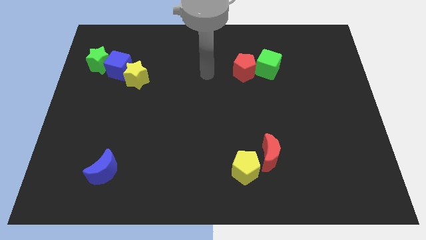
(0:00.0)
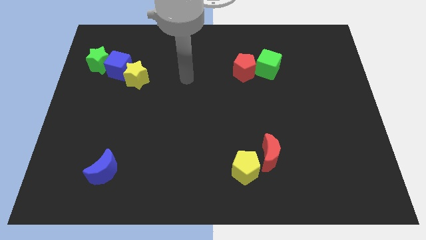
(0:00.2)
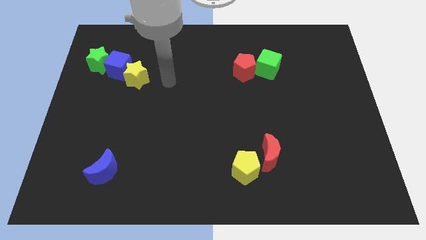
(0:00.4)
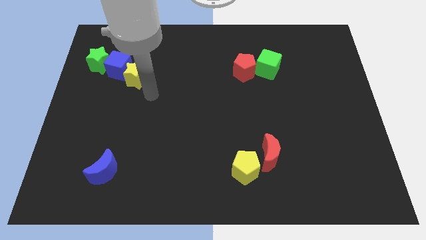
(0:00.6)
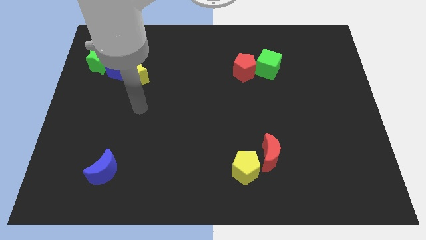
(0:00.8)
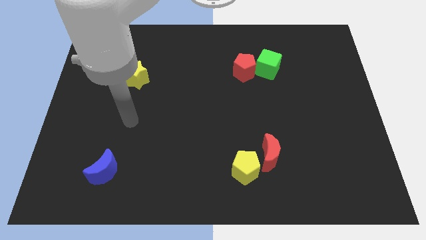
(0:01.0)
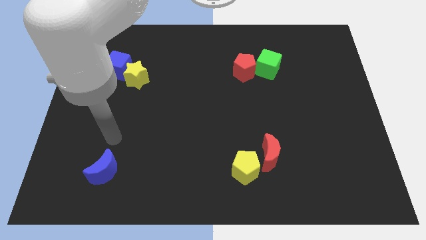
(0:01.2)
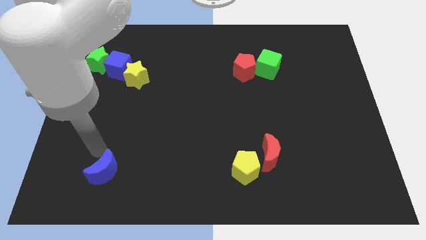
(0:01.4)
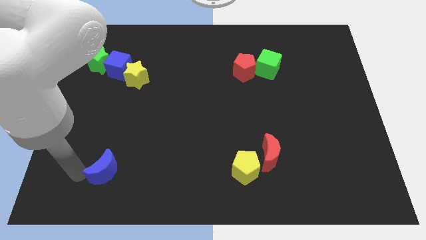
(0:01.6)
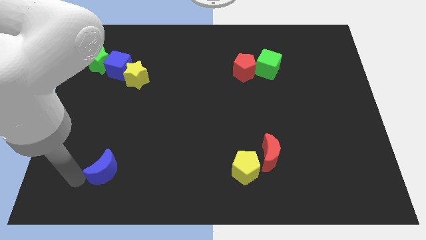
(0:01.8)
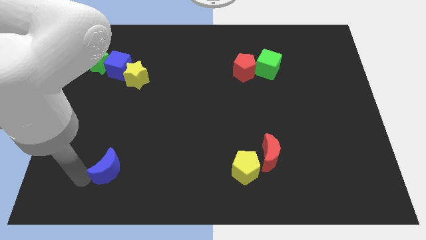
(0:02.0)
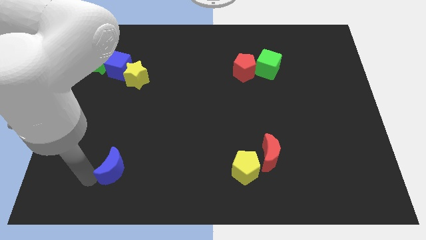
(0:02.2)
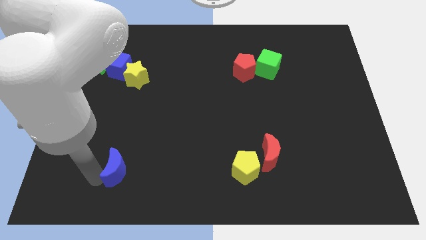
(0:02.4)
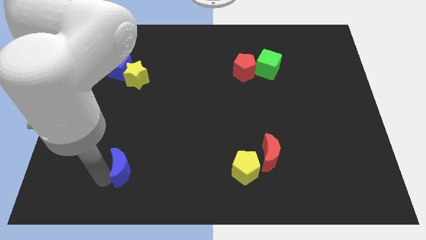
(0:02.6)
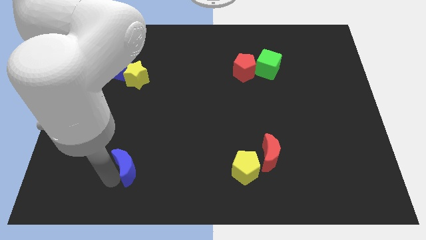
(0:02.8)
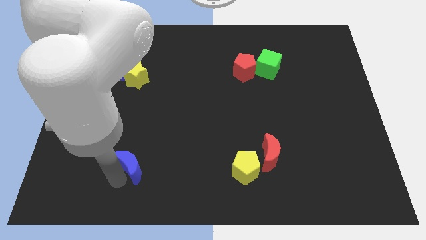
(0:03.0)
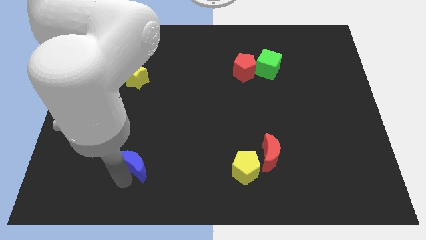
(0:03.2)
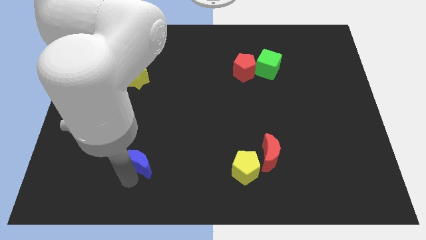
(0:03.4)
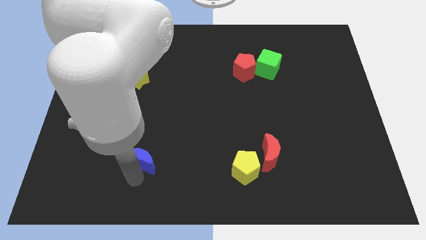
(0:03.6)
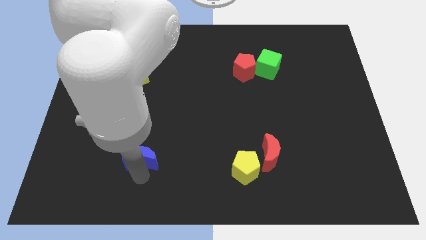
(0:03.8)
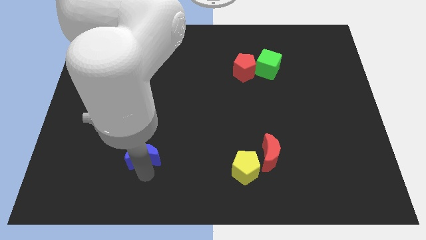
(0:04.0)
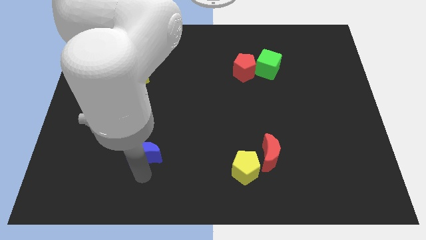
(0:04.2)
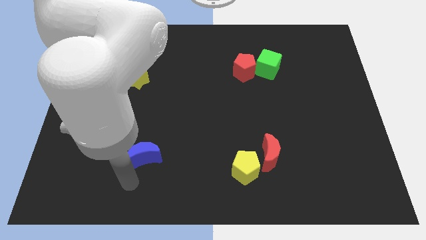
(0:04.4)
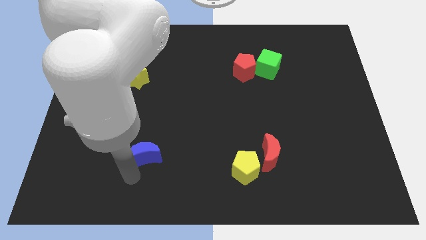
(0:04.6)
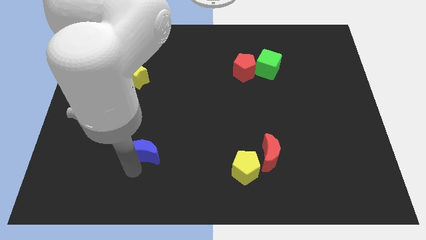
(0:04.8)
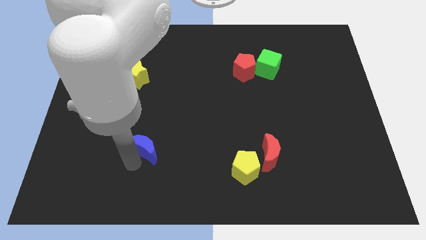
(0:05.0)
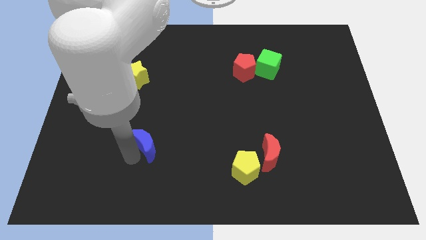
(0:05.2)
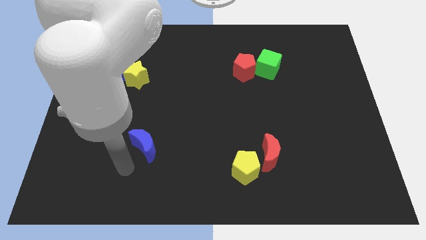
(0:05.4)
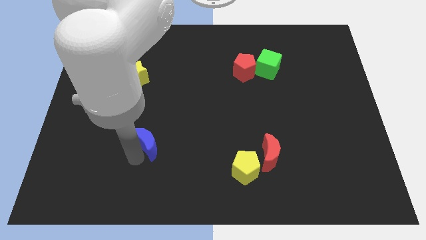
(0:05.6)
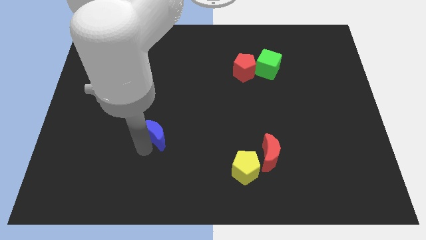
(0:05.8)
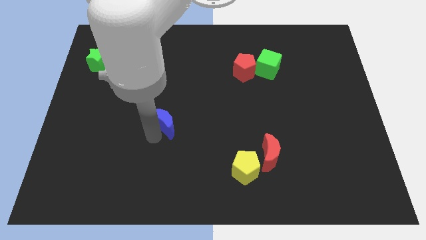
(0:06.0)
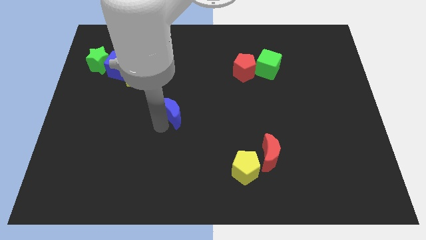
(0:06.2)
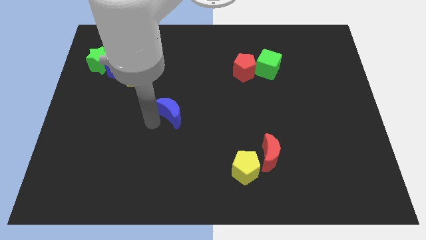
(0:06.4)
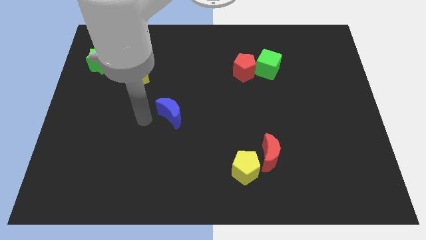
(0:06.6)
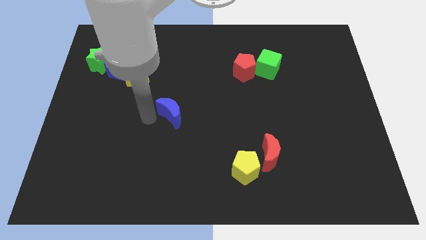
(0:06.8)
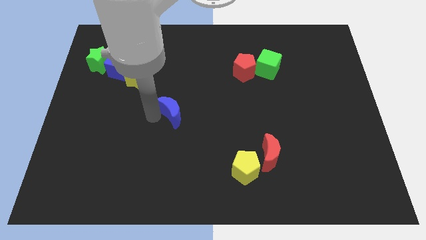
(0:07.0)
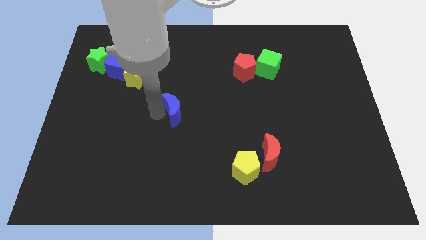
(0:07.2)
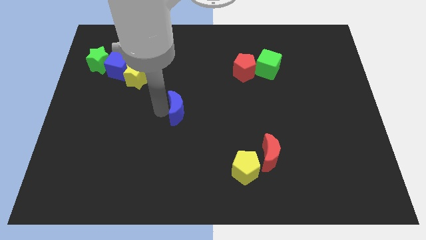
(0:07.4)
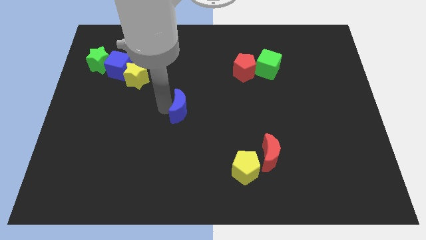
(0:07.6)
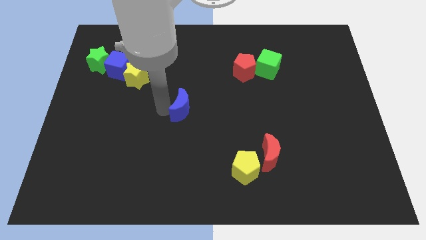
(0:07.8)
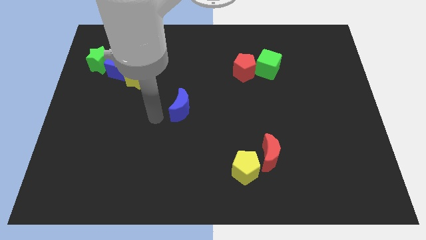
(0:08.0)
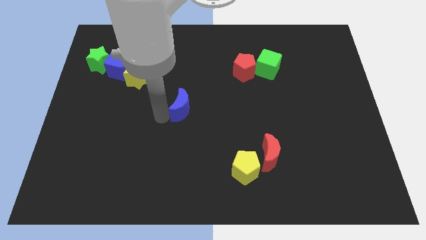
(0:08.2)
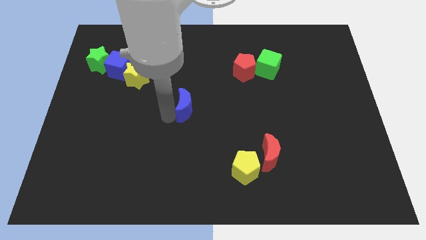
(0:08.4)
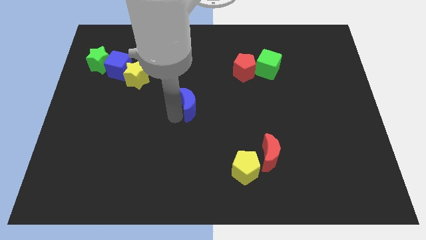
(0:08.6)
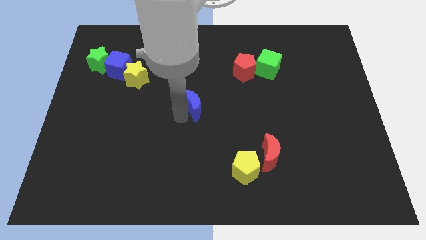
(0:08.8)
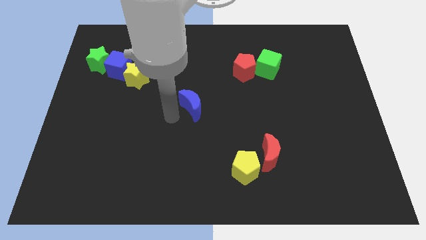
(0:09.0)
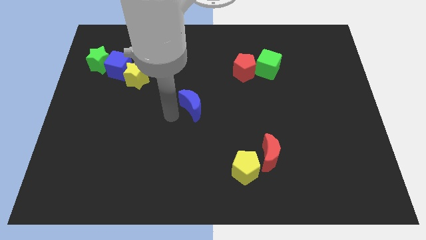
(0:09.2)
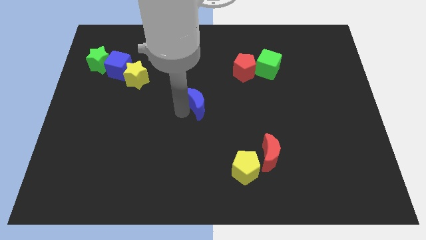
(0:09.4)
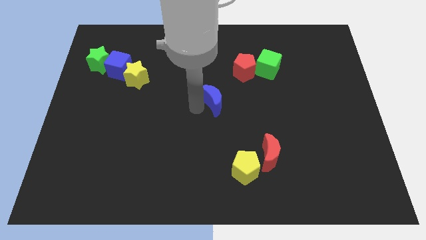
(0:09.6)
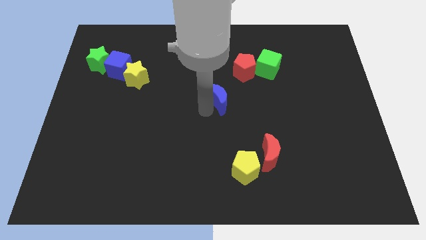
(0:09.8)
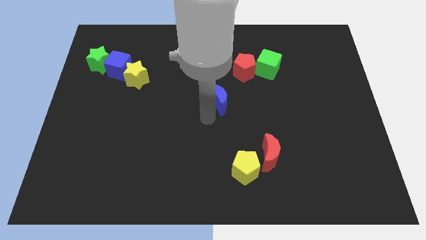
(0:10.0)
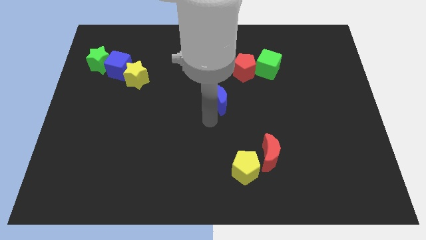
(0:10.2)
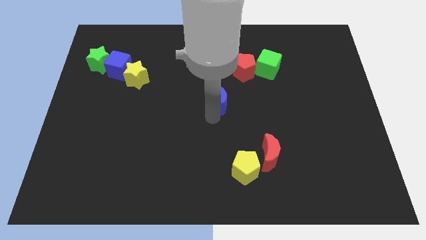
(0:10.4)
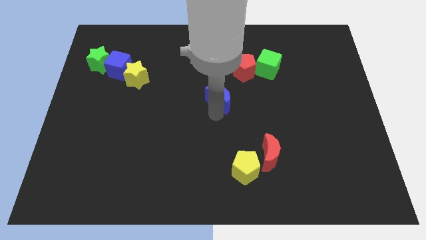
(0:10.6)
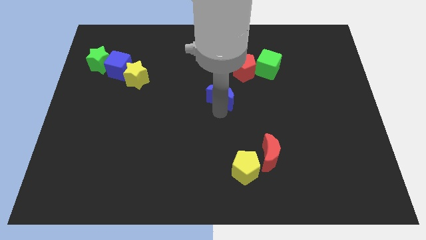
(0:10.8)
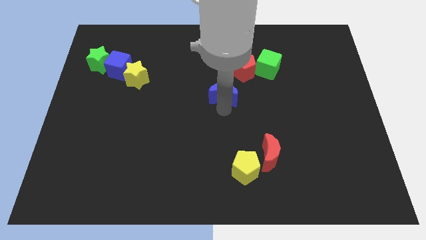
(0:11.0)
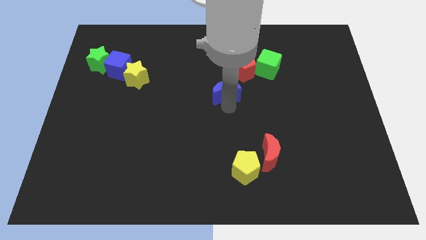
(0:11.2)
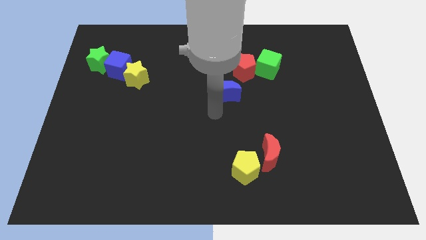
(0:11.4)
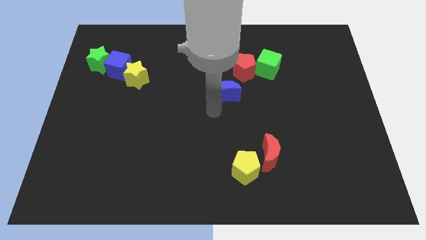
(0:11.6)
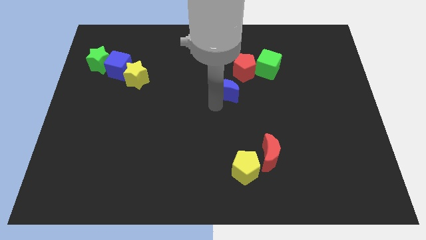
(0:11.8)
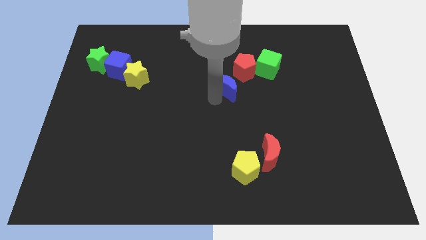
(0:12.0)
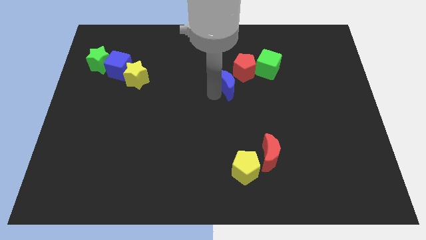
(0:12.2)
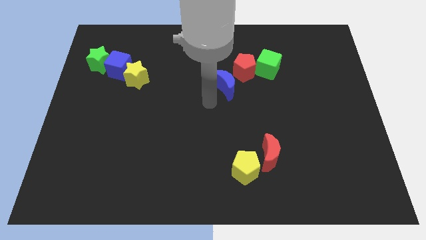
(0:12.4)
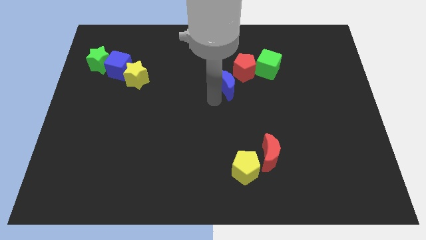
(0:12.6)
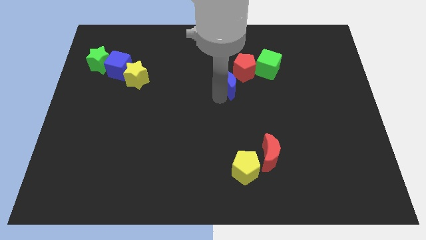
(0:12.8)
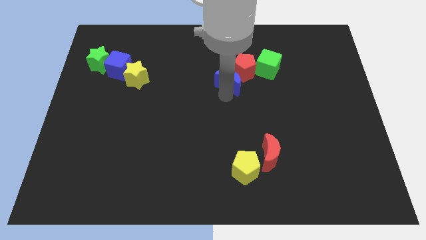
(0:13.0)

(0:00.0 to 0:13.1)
push the blue moon next to the red pentagon
